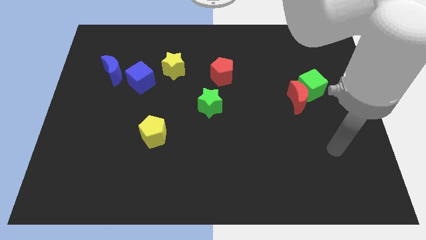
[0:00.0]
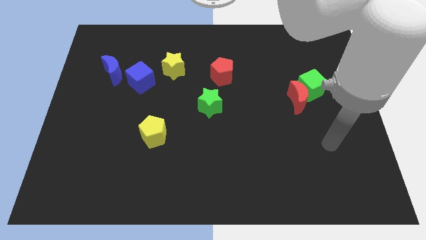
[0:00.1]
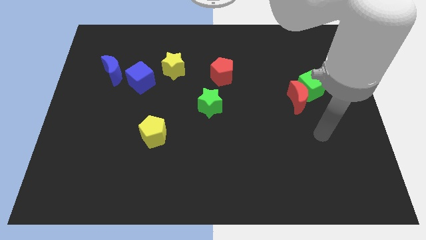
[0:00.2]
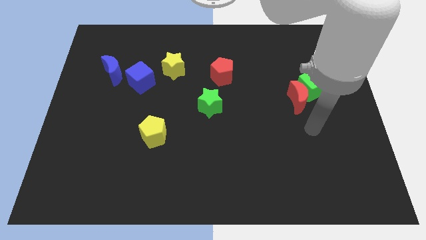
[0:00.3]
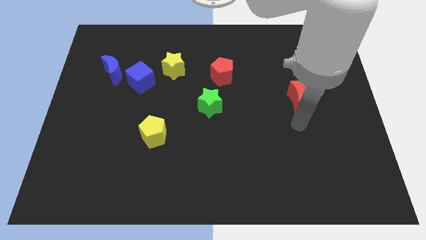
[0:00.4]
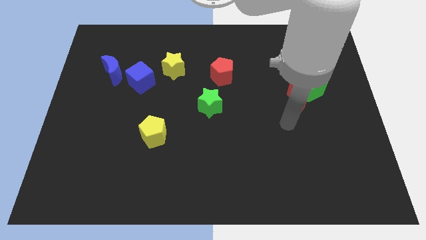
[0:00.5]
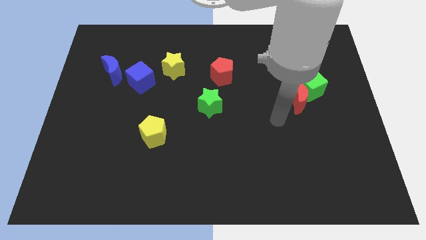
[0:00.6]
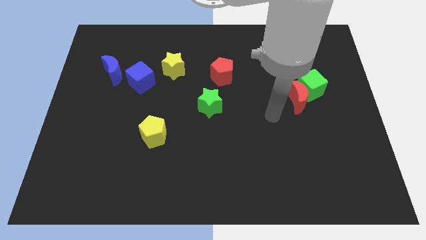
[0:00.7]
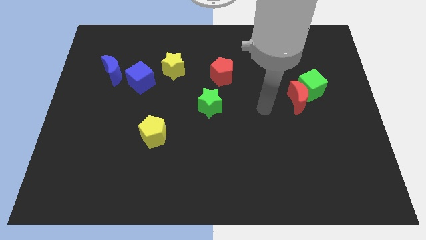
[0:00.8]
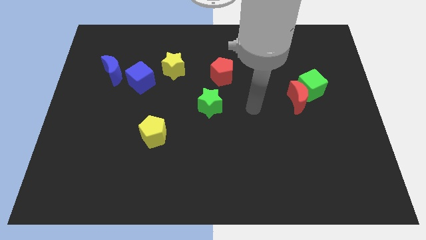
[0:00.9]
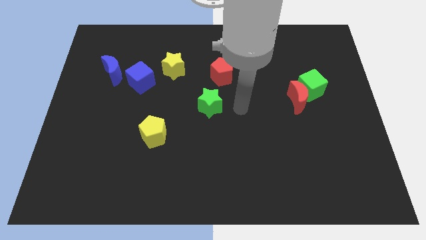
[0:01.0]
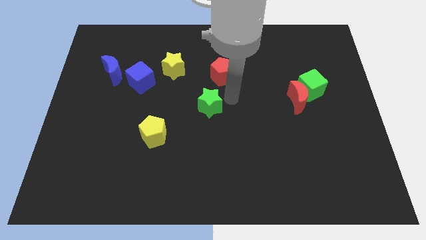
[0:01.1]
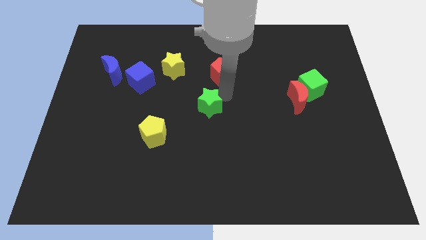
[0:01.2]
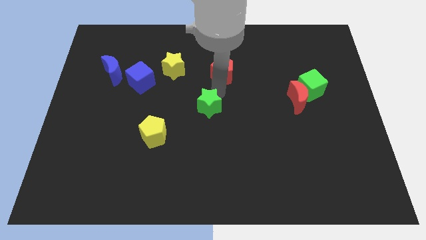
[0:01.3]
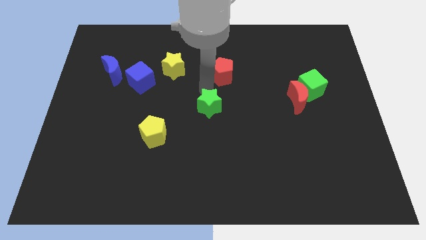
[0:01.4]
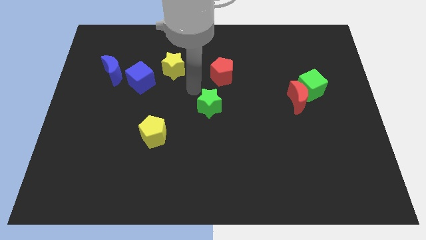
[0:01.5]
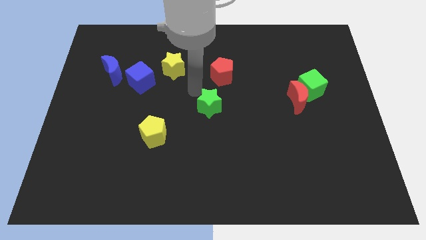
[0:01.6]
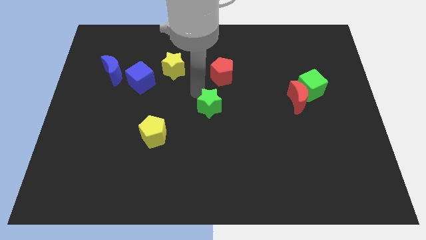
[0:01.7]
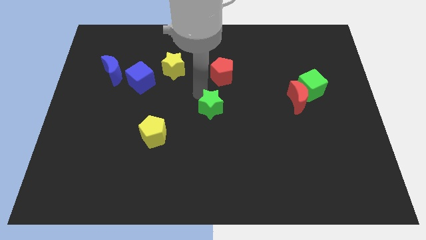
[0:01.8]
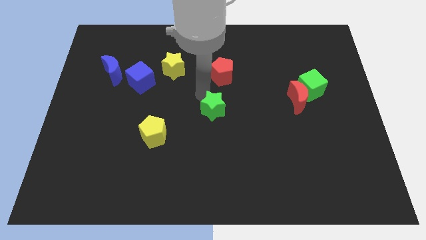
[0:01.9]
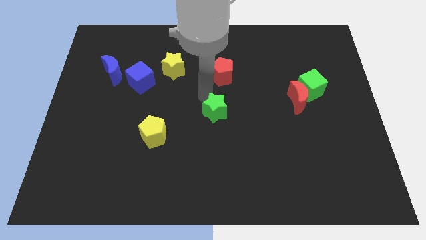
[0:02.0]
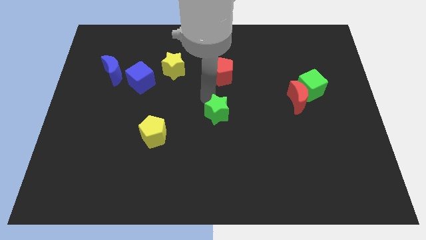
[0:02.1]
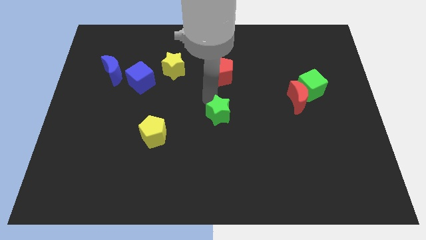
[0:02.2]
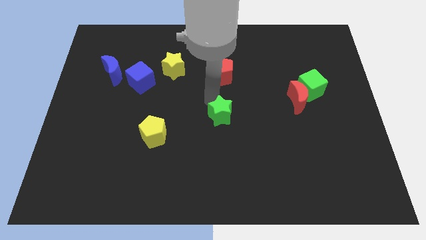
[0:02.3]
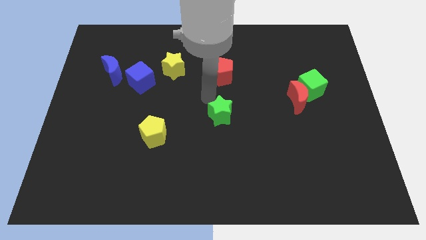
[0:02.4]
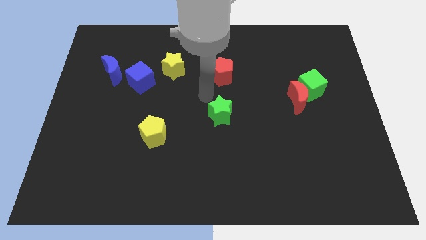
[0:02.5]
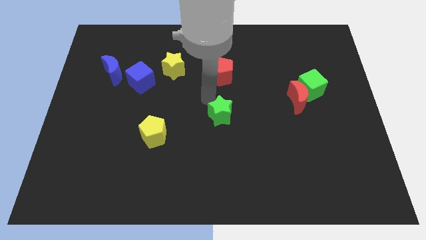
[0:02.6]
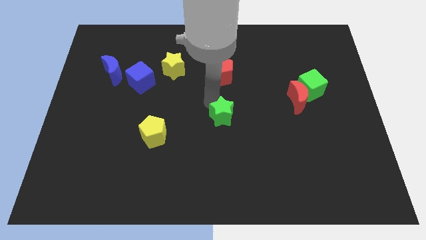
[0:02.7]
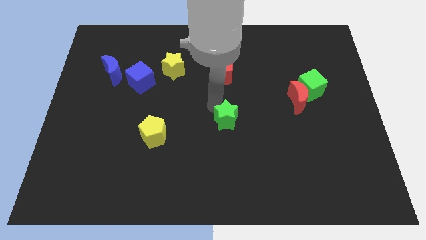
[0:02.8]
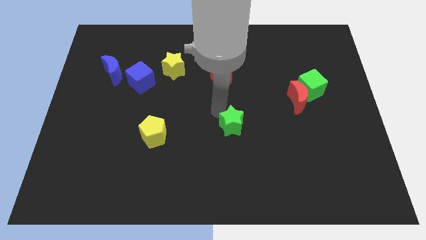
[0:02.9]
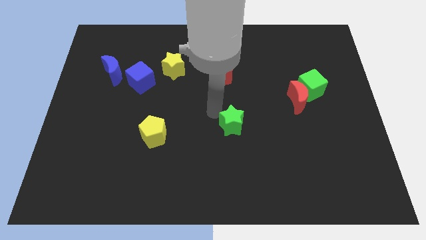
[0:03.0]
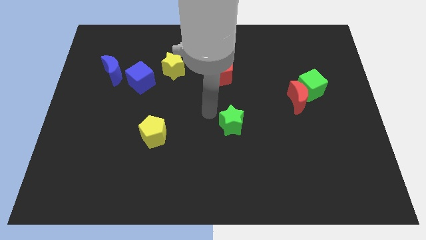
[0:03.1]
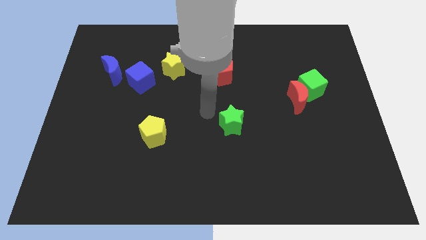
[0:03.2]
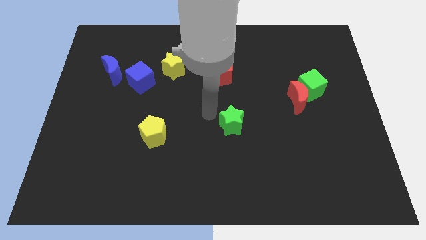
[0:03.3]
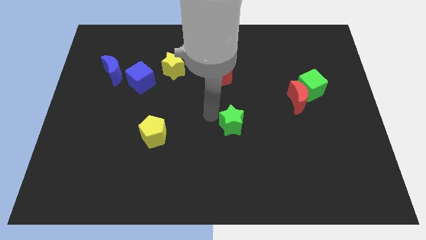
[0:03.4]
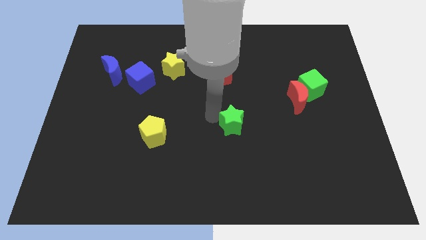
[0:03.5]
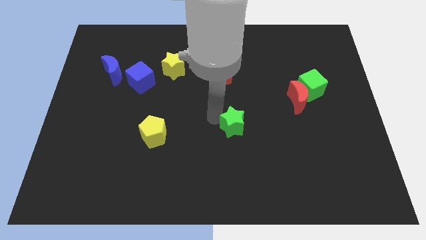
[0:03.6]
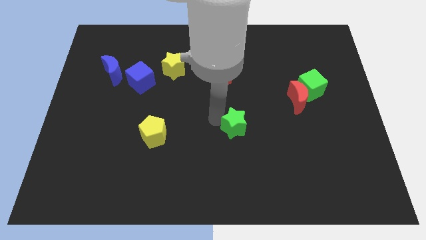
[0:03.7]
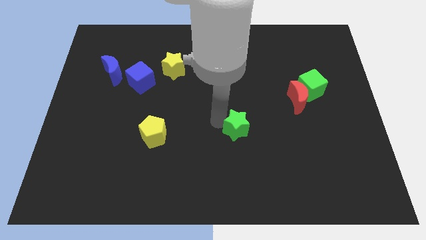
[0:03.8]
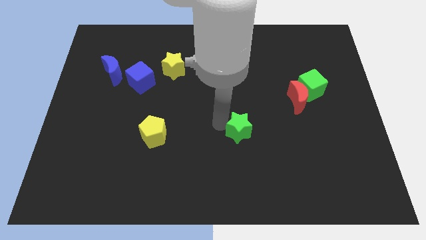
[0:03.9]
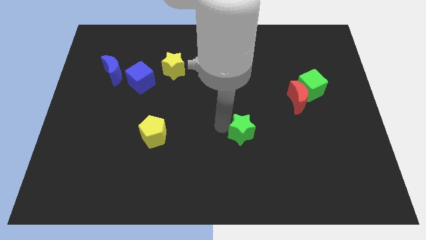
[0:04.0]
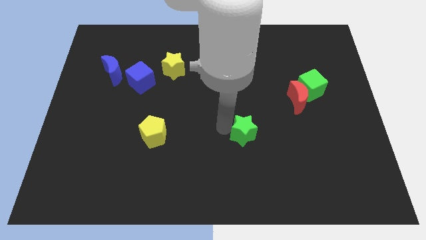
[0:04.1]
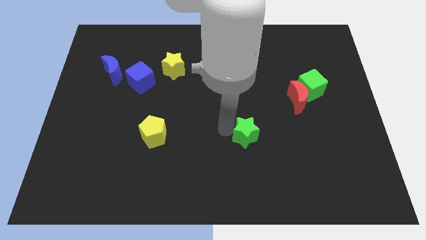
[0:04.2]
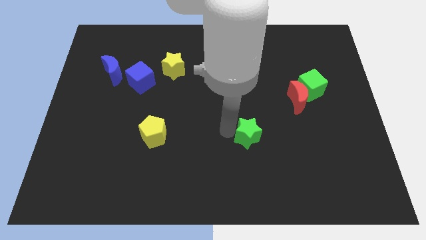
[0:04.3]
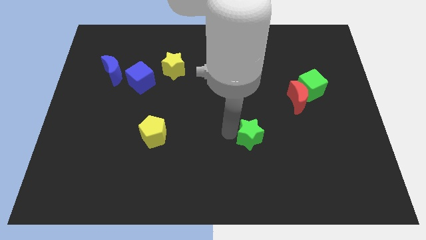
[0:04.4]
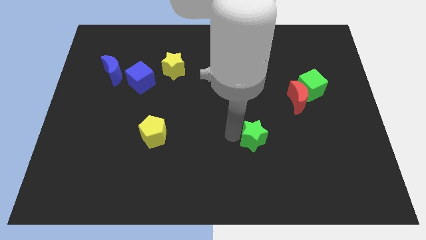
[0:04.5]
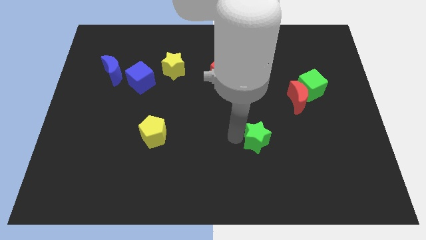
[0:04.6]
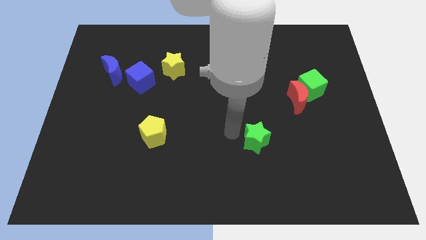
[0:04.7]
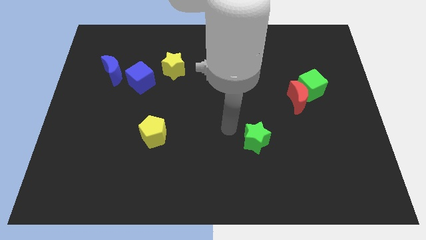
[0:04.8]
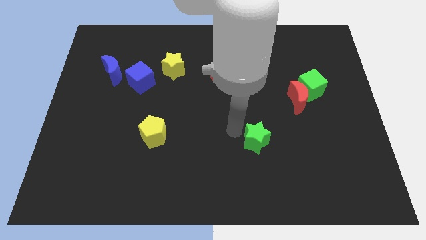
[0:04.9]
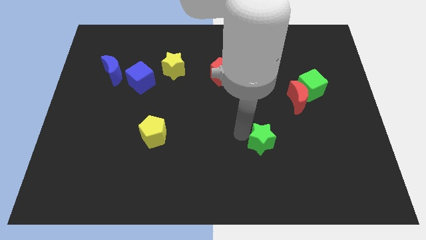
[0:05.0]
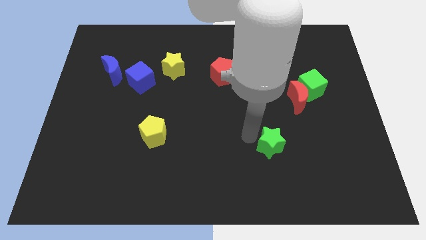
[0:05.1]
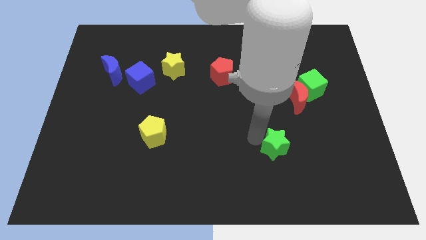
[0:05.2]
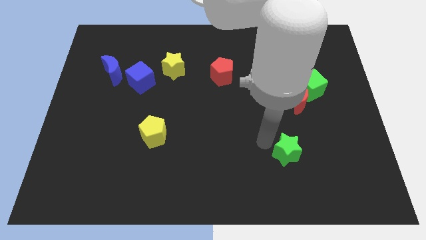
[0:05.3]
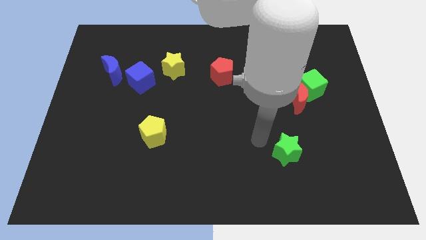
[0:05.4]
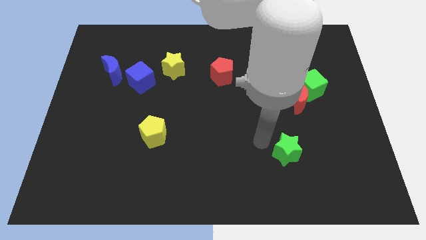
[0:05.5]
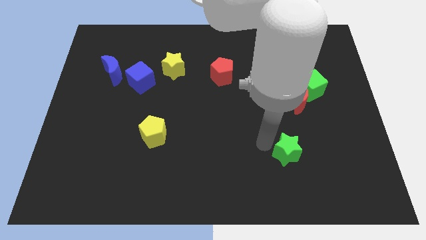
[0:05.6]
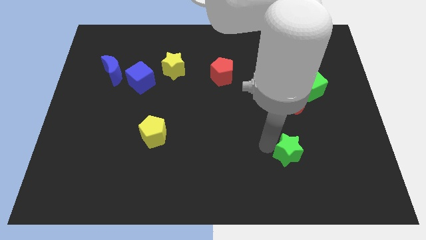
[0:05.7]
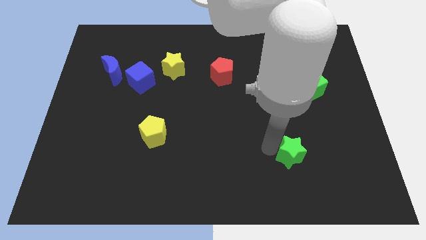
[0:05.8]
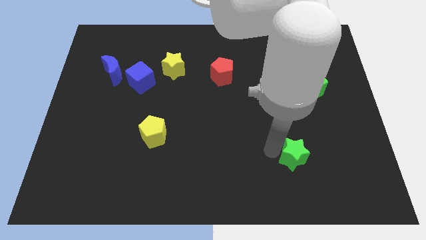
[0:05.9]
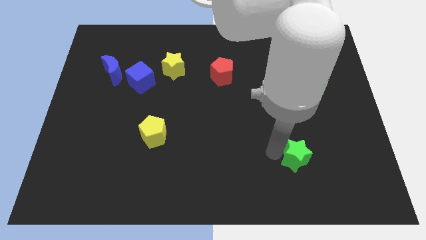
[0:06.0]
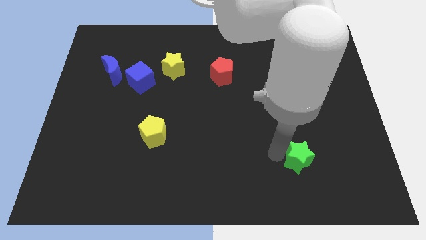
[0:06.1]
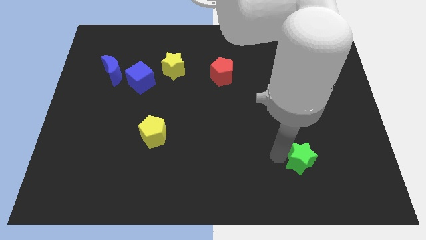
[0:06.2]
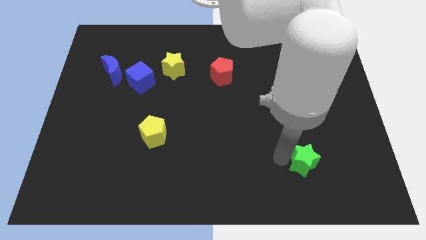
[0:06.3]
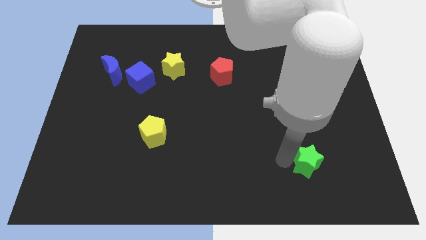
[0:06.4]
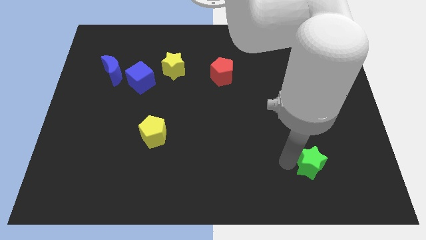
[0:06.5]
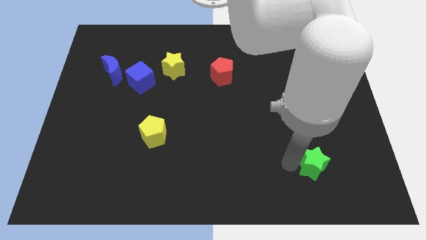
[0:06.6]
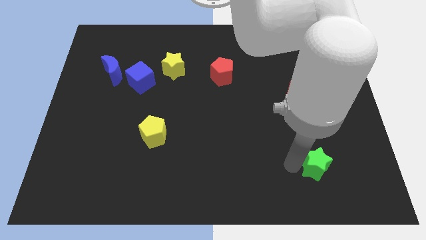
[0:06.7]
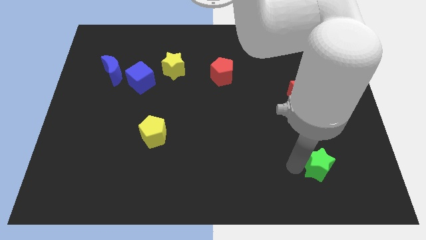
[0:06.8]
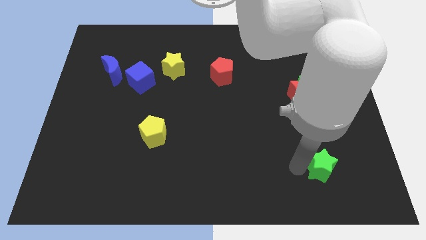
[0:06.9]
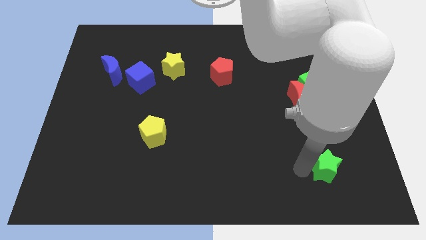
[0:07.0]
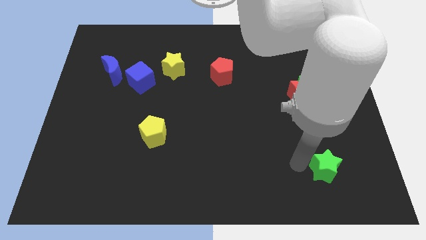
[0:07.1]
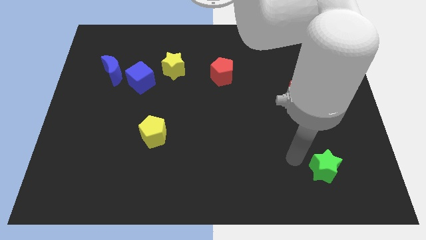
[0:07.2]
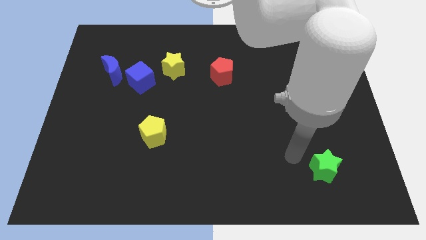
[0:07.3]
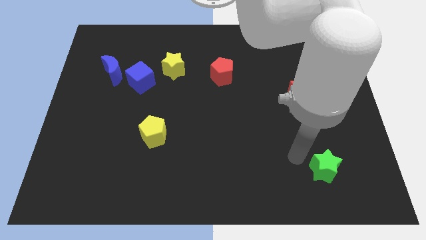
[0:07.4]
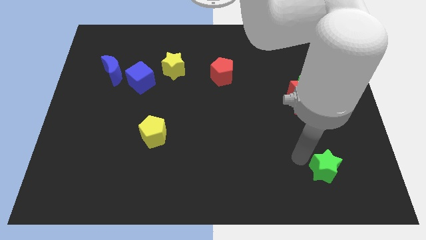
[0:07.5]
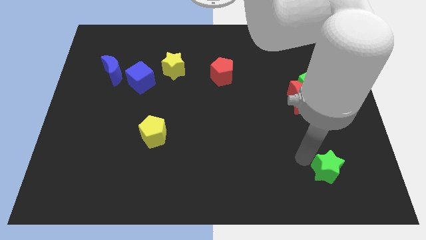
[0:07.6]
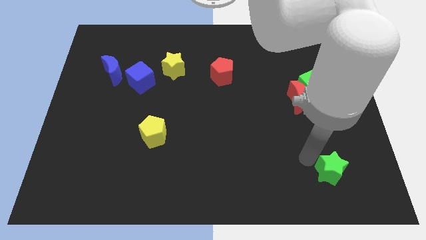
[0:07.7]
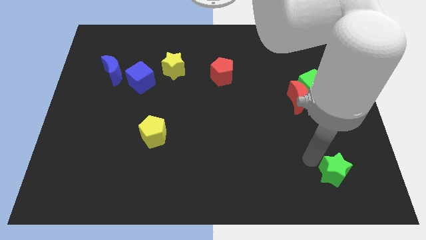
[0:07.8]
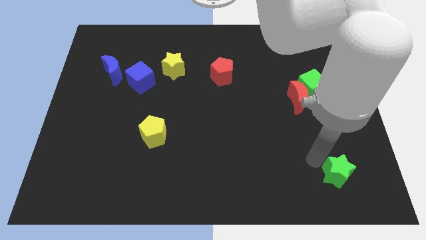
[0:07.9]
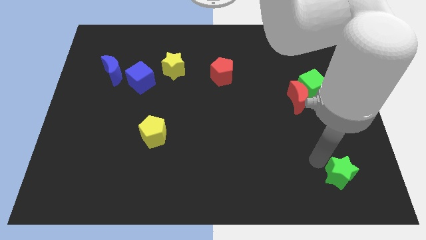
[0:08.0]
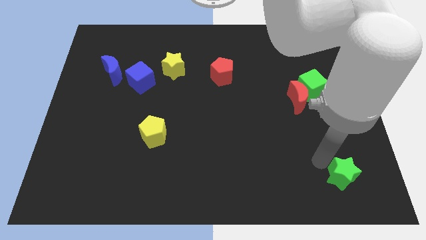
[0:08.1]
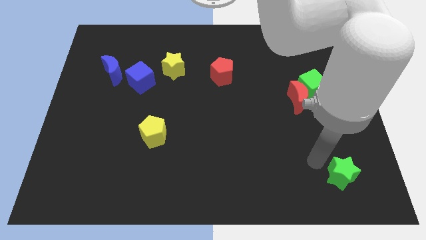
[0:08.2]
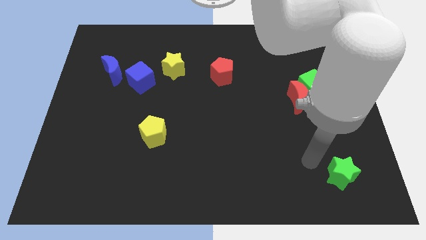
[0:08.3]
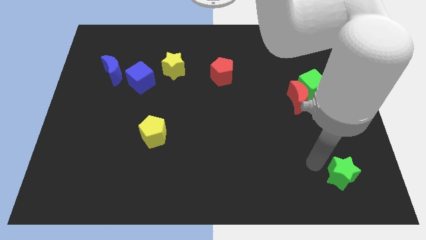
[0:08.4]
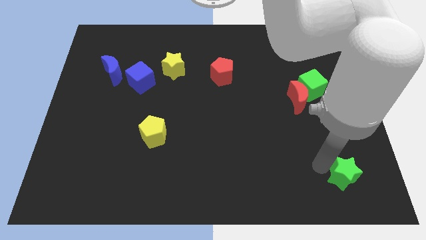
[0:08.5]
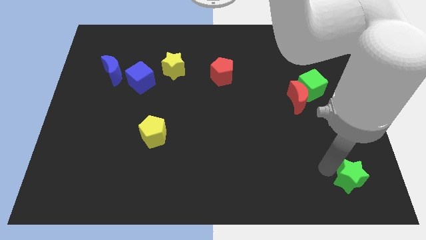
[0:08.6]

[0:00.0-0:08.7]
slide the green star to the bottom right corner
